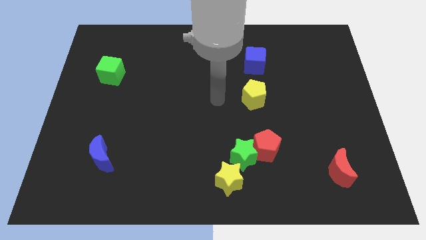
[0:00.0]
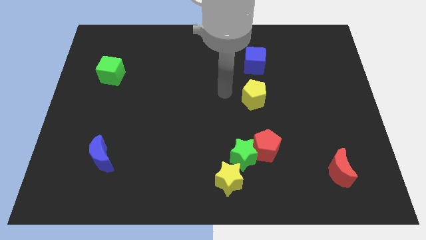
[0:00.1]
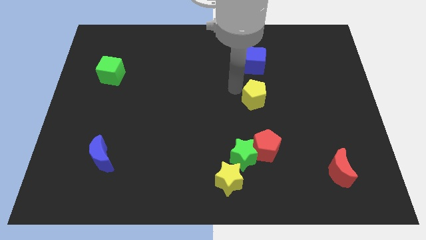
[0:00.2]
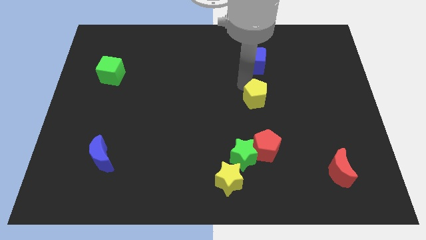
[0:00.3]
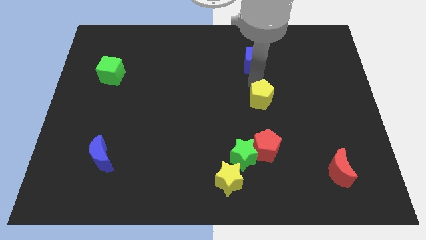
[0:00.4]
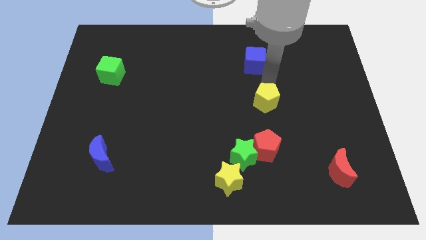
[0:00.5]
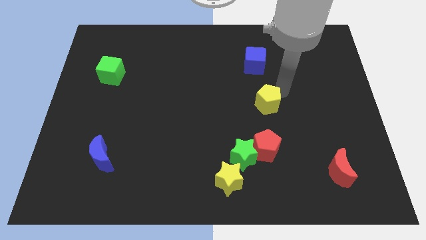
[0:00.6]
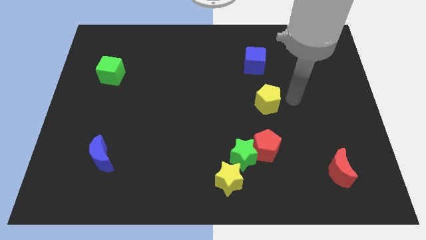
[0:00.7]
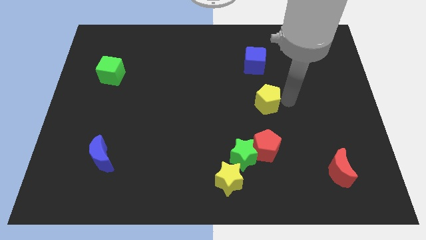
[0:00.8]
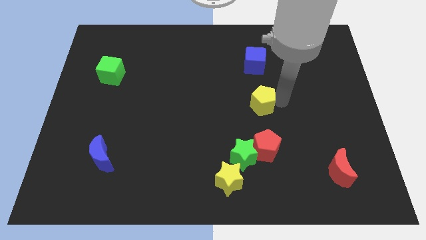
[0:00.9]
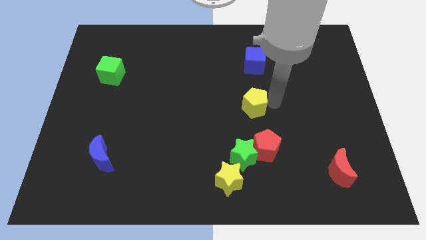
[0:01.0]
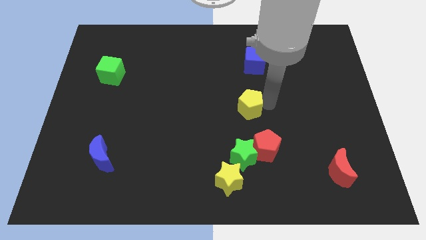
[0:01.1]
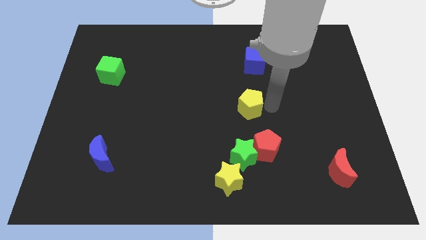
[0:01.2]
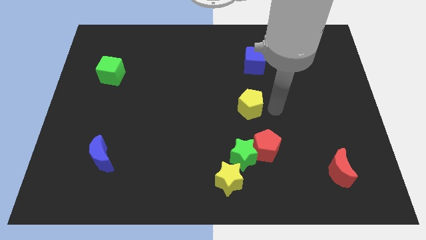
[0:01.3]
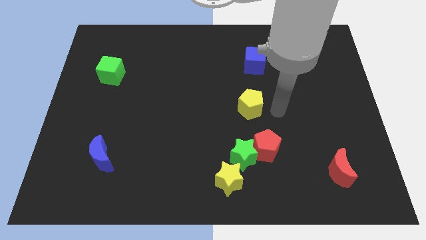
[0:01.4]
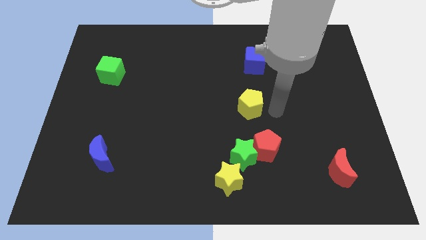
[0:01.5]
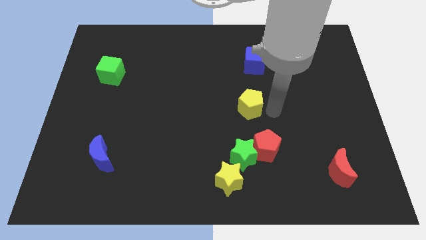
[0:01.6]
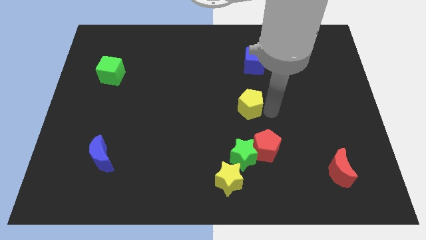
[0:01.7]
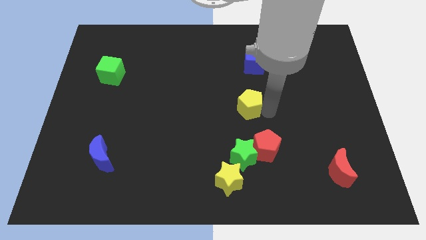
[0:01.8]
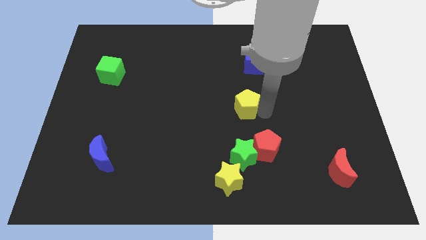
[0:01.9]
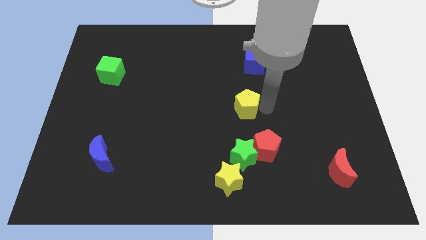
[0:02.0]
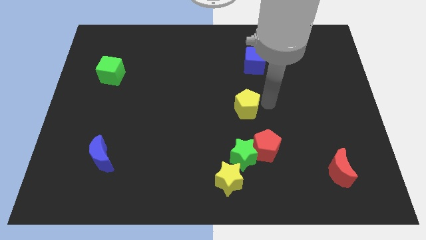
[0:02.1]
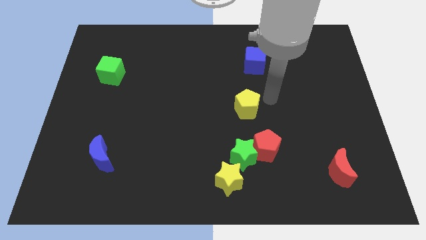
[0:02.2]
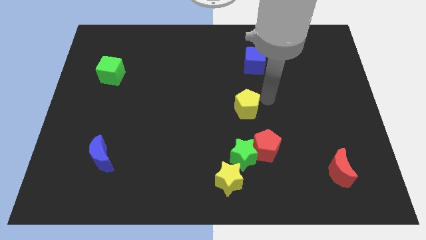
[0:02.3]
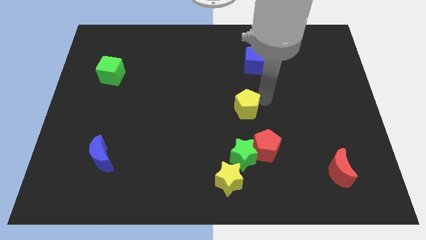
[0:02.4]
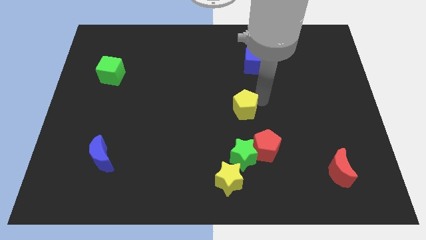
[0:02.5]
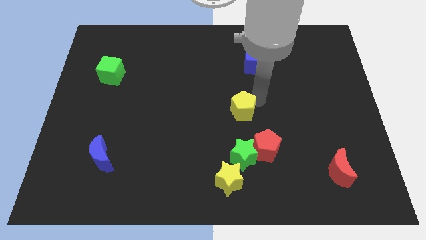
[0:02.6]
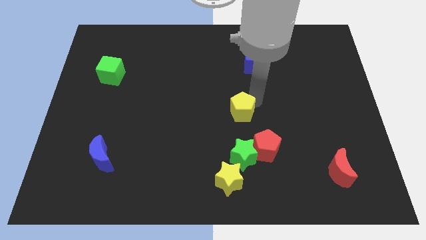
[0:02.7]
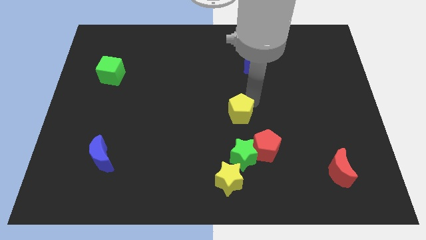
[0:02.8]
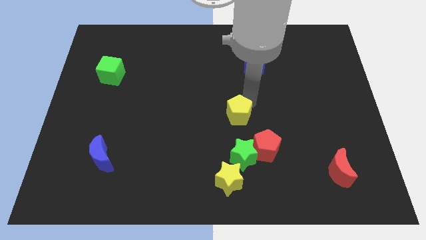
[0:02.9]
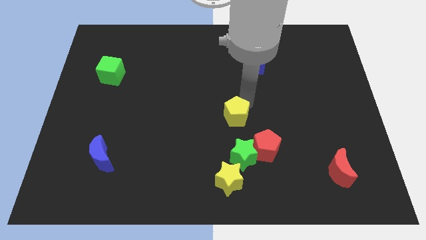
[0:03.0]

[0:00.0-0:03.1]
slightly slide the yellow pentagon downwards and to the left

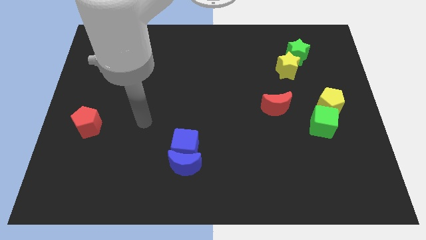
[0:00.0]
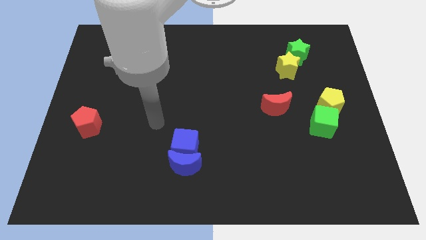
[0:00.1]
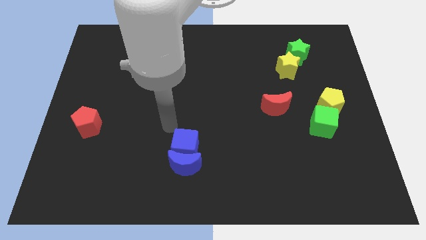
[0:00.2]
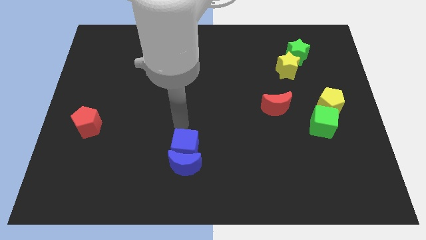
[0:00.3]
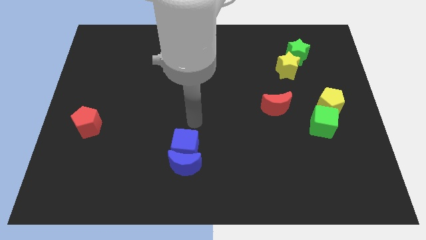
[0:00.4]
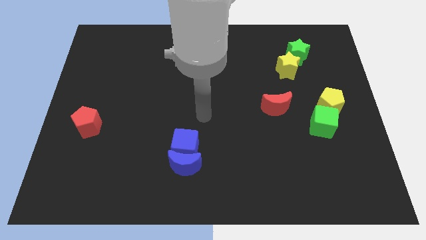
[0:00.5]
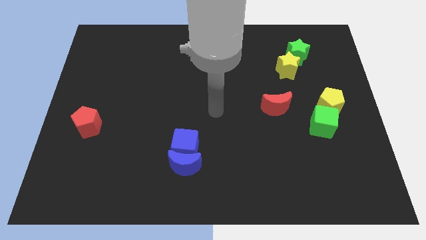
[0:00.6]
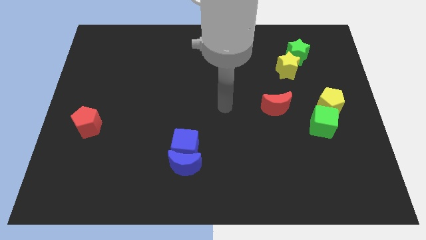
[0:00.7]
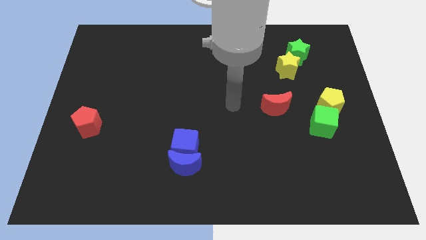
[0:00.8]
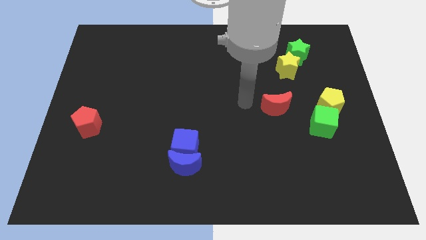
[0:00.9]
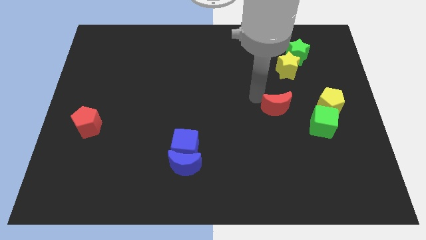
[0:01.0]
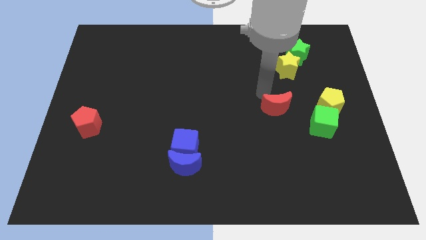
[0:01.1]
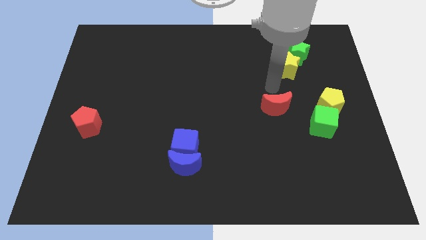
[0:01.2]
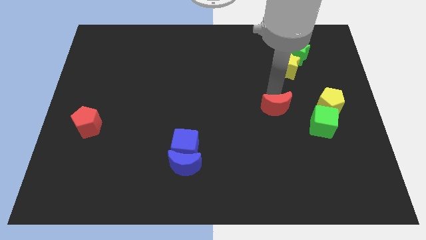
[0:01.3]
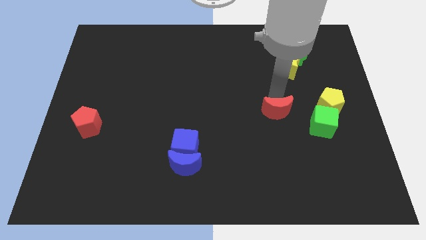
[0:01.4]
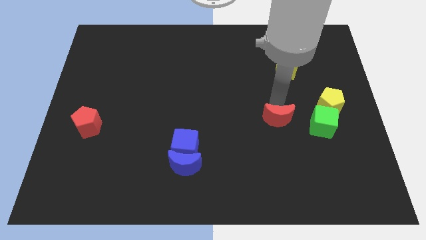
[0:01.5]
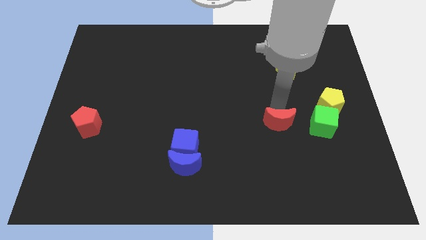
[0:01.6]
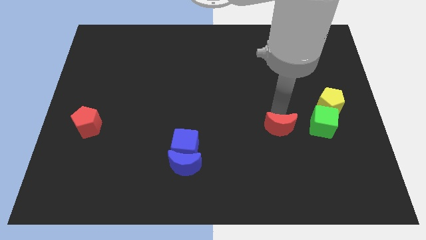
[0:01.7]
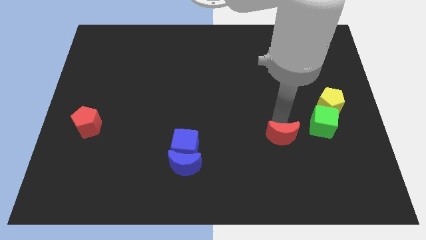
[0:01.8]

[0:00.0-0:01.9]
slightly move the red moon downwards

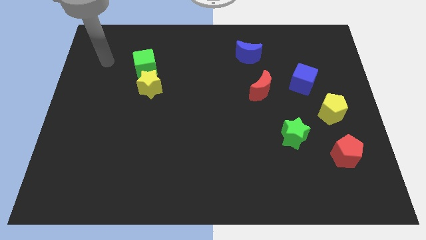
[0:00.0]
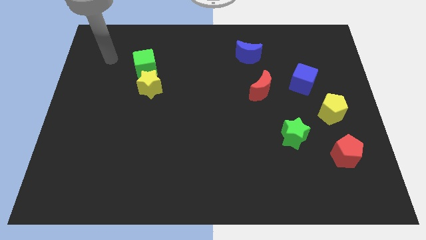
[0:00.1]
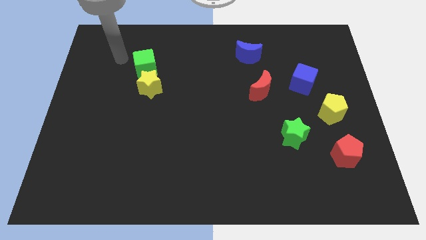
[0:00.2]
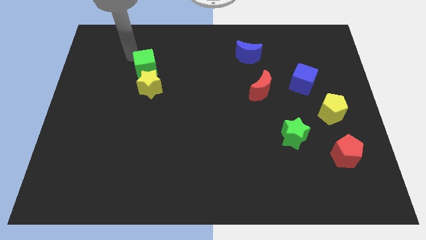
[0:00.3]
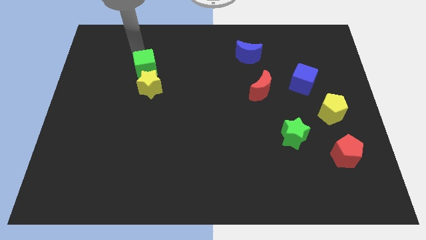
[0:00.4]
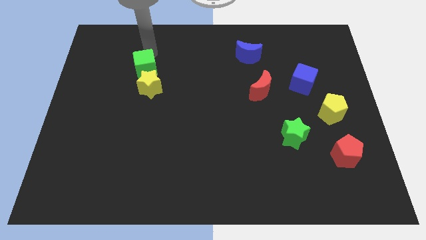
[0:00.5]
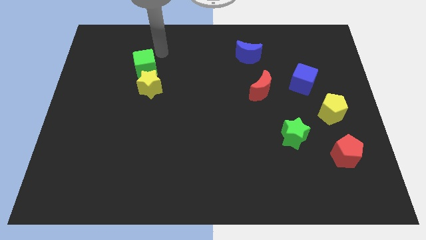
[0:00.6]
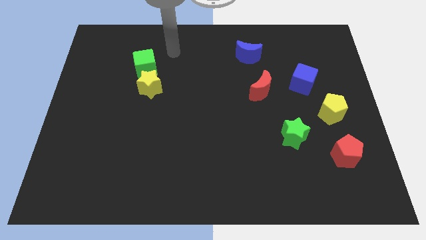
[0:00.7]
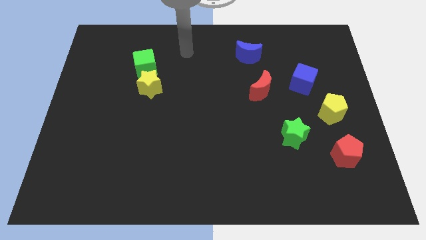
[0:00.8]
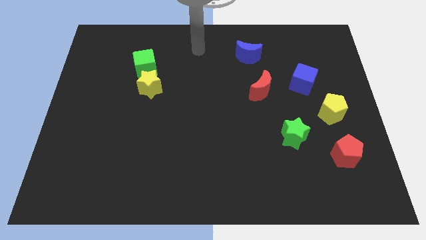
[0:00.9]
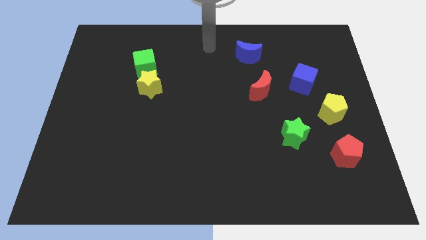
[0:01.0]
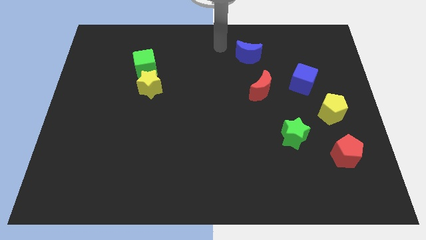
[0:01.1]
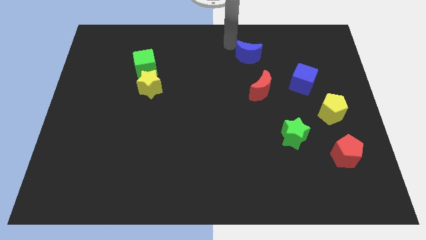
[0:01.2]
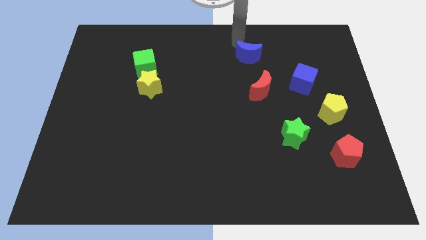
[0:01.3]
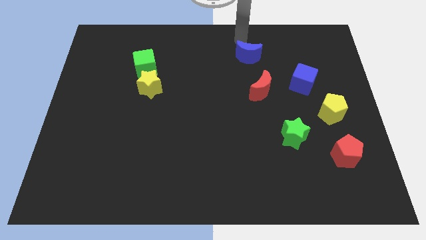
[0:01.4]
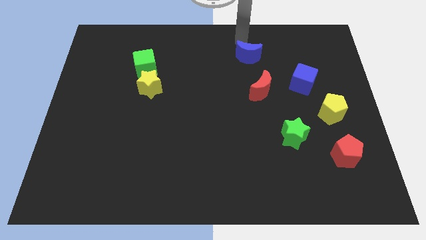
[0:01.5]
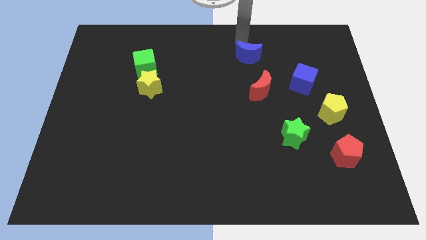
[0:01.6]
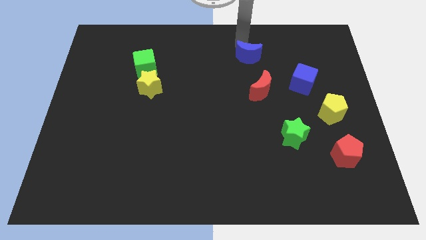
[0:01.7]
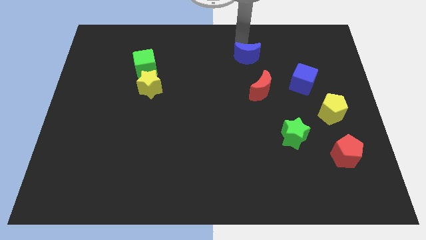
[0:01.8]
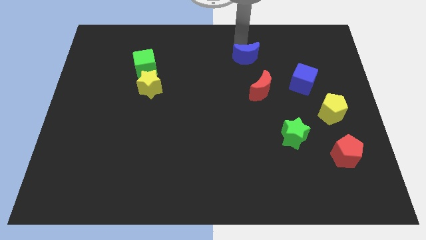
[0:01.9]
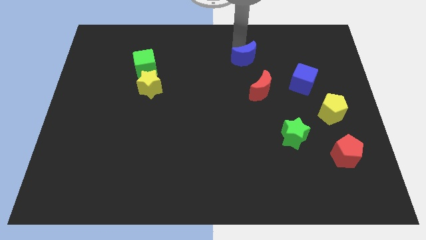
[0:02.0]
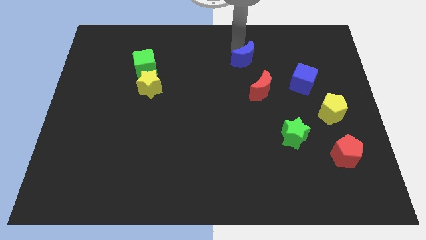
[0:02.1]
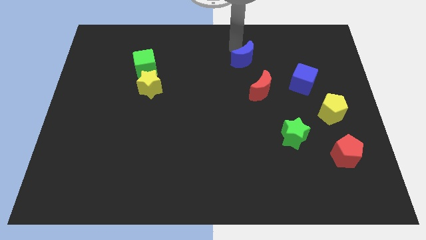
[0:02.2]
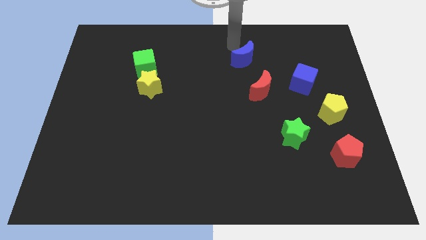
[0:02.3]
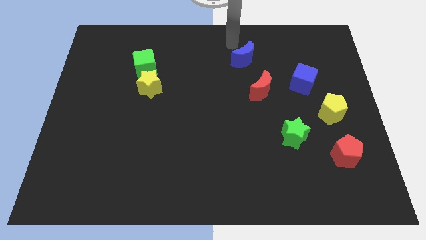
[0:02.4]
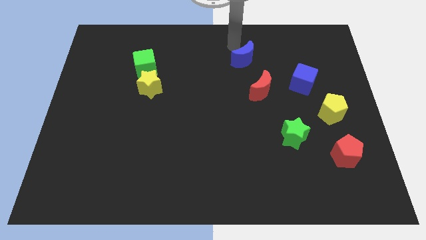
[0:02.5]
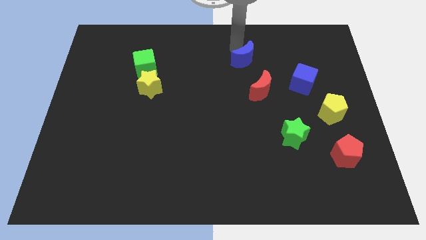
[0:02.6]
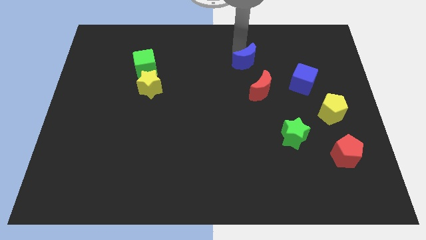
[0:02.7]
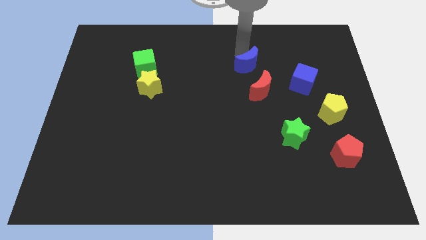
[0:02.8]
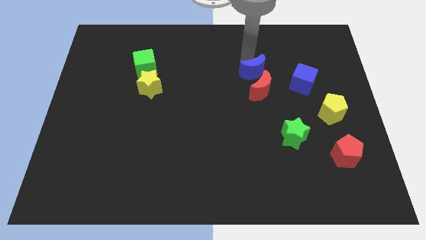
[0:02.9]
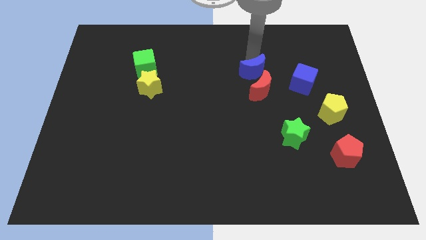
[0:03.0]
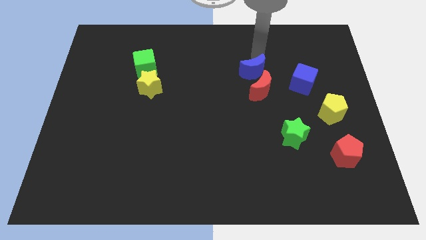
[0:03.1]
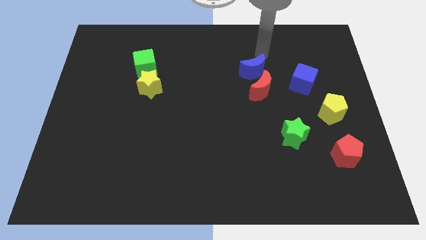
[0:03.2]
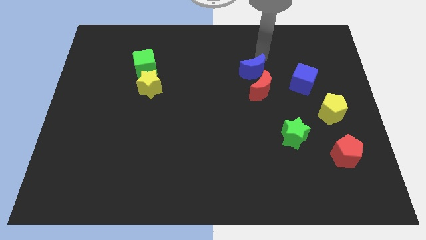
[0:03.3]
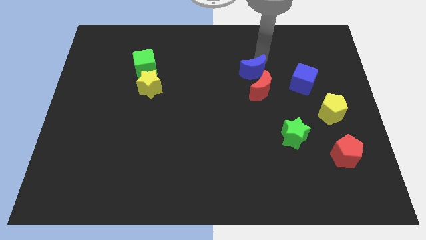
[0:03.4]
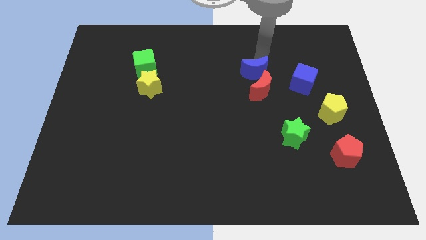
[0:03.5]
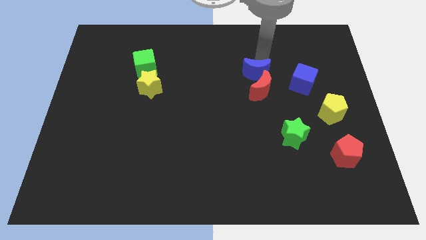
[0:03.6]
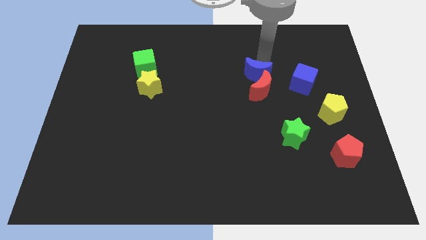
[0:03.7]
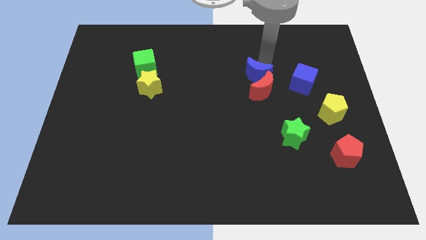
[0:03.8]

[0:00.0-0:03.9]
slightly push the blue moon down
